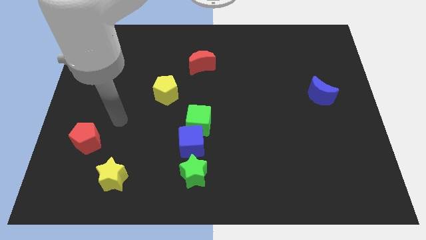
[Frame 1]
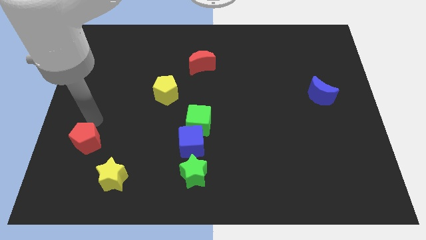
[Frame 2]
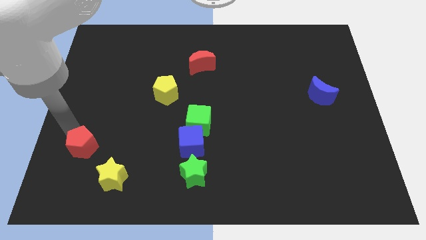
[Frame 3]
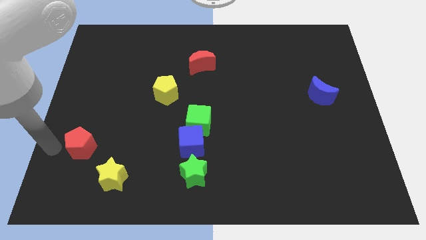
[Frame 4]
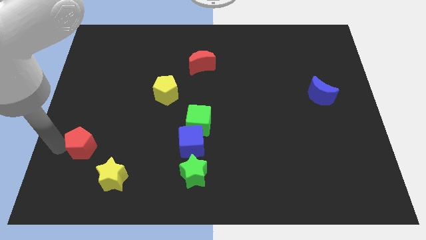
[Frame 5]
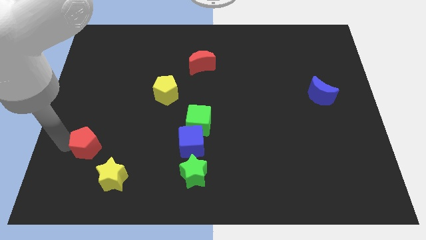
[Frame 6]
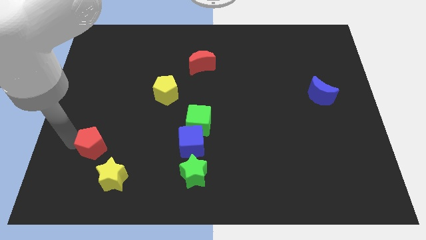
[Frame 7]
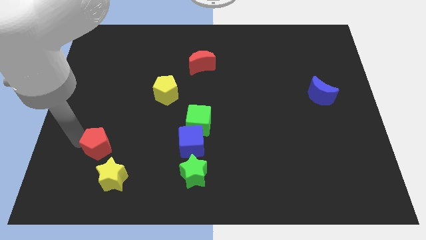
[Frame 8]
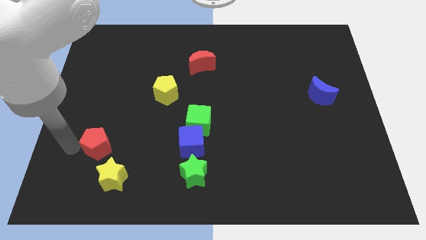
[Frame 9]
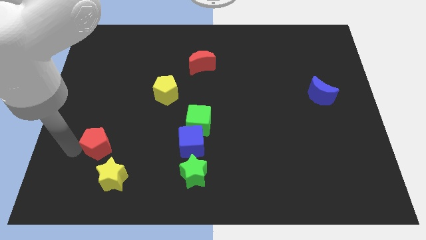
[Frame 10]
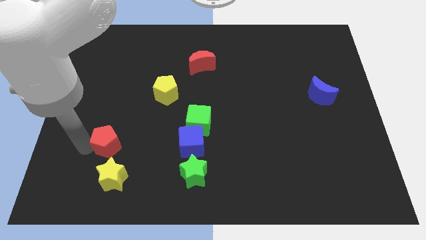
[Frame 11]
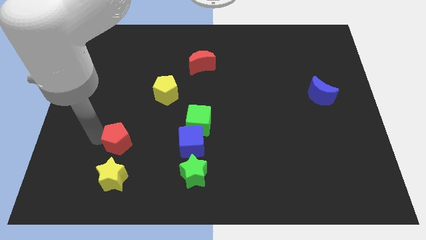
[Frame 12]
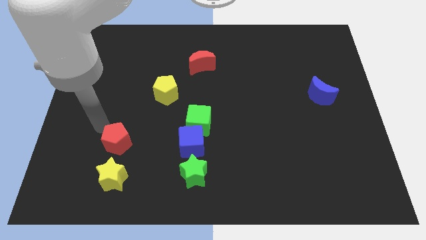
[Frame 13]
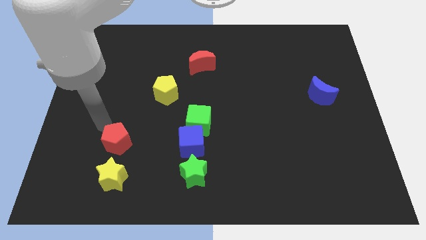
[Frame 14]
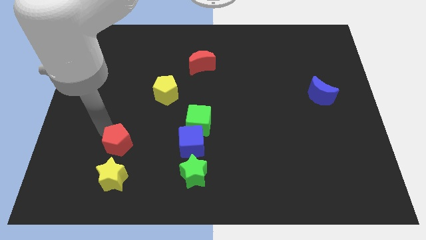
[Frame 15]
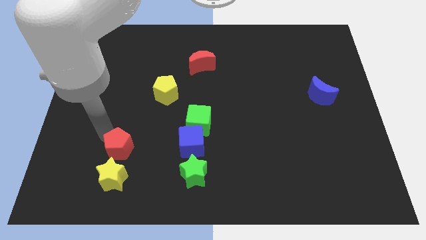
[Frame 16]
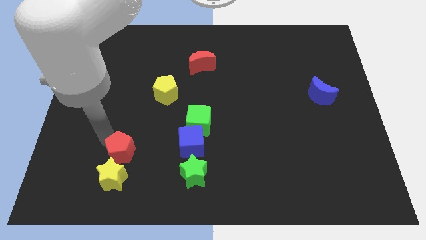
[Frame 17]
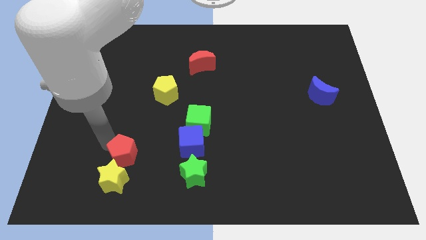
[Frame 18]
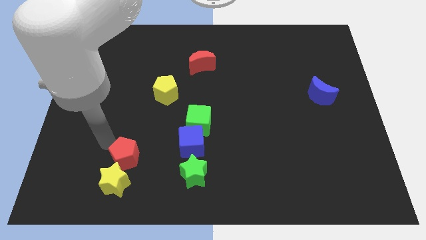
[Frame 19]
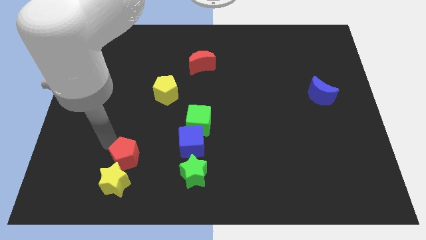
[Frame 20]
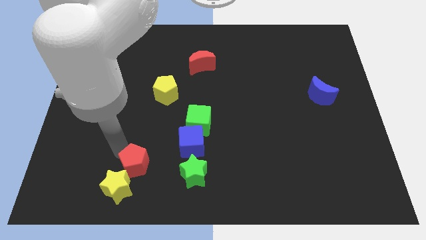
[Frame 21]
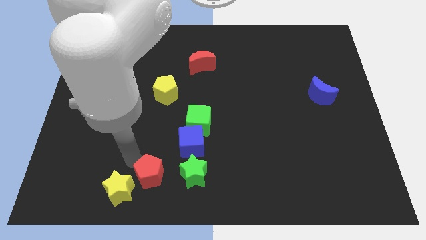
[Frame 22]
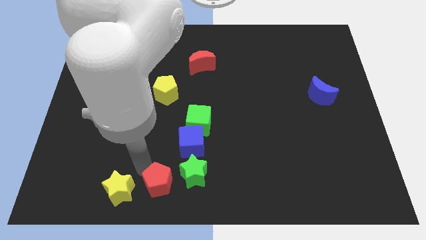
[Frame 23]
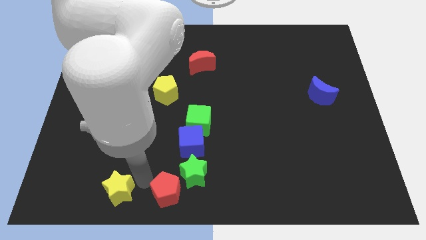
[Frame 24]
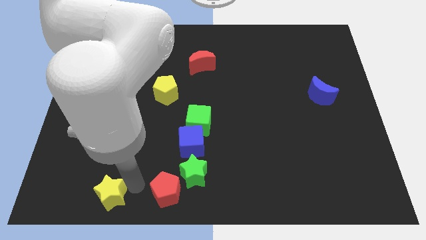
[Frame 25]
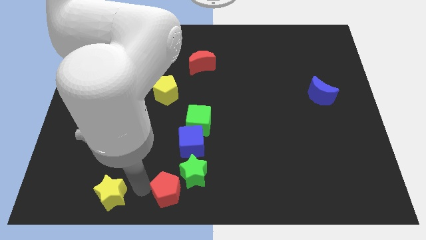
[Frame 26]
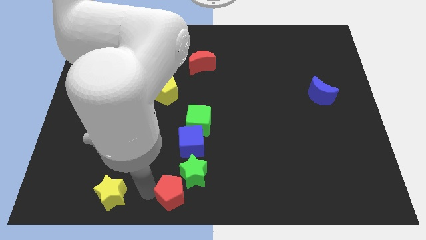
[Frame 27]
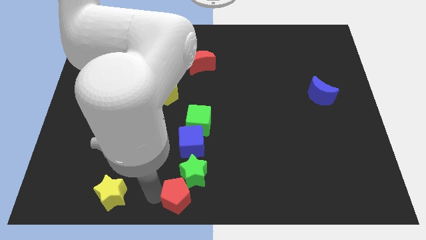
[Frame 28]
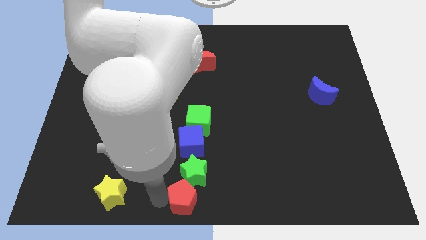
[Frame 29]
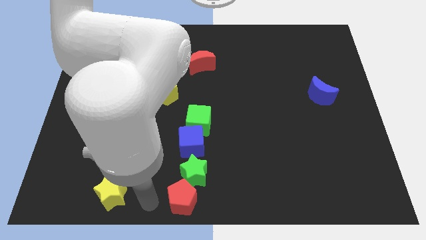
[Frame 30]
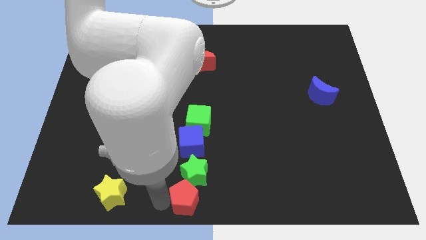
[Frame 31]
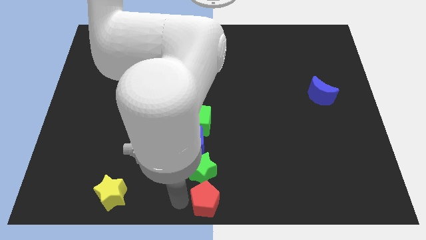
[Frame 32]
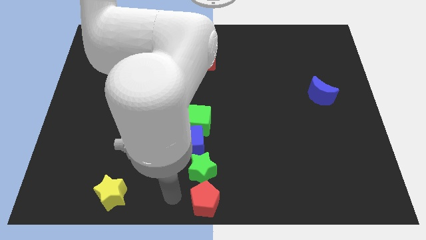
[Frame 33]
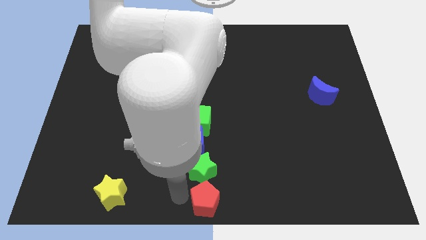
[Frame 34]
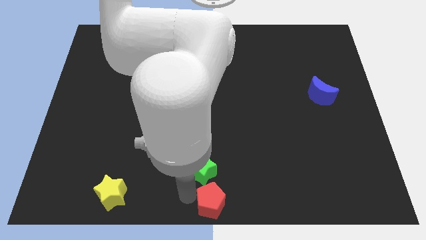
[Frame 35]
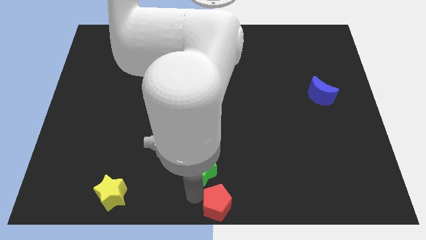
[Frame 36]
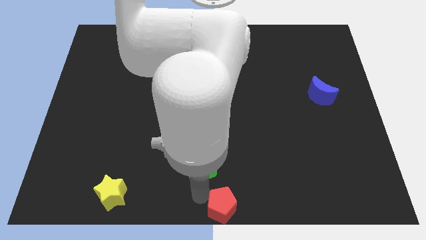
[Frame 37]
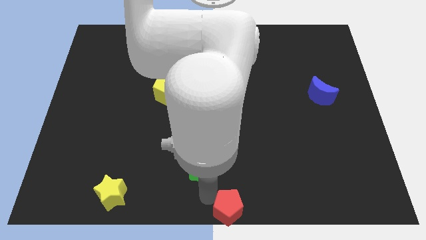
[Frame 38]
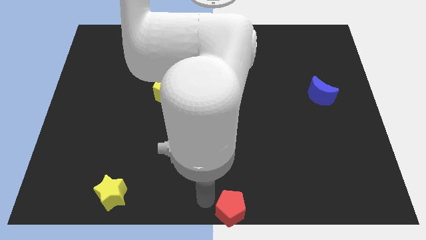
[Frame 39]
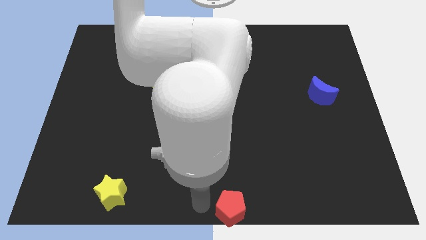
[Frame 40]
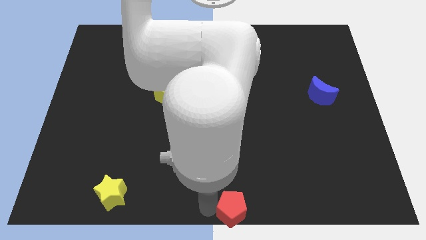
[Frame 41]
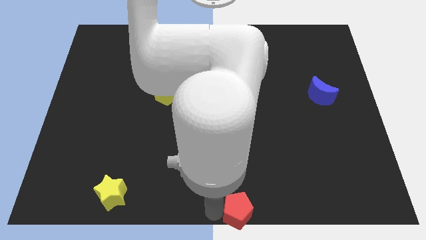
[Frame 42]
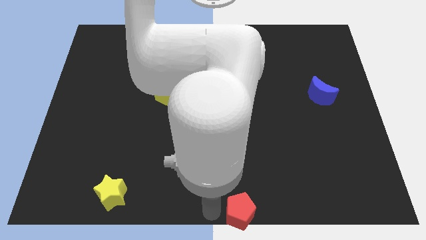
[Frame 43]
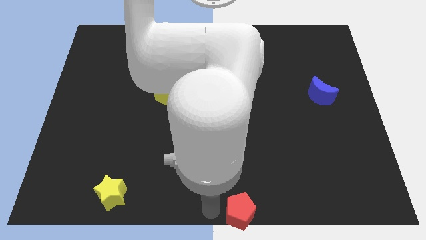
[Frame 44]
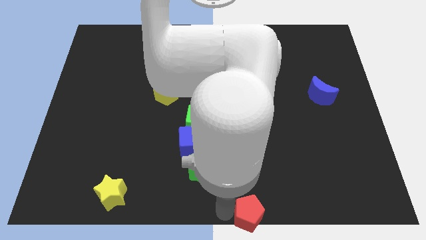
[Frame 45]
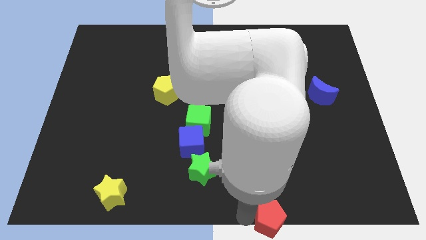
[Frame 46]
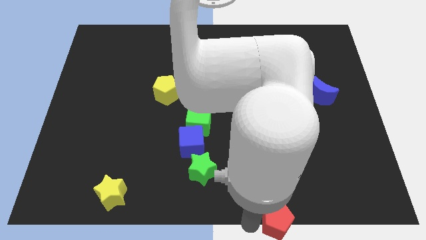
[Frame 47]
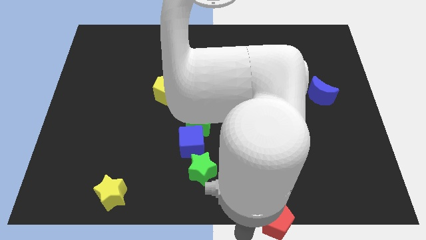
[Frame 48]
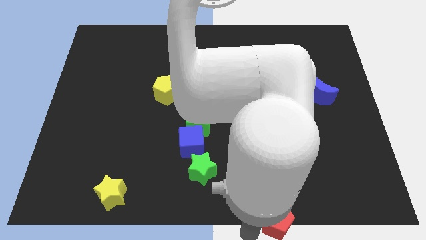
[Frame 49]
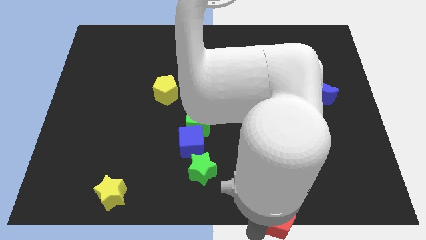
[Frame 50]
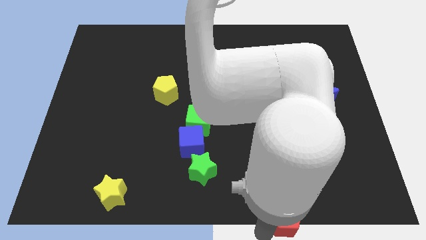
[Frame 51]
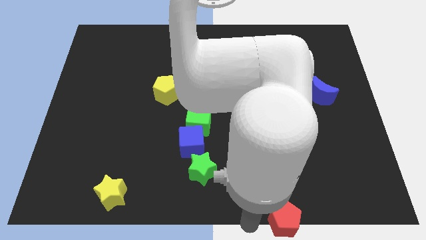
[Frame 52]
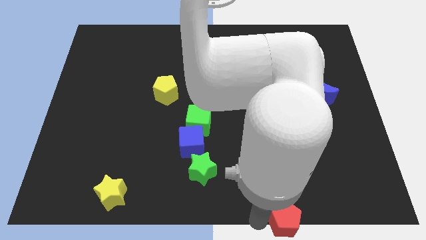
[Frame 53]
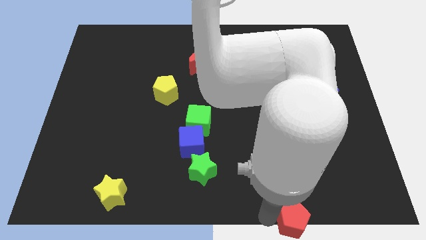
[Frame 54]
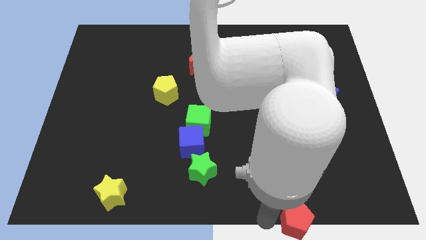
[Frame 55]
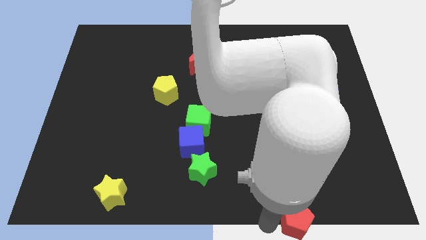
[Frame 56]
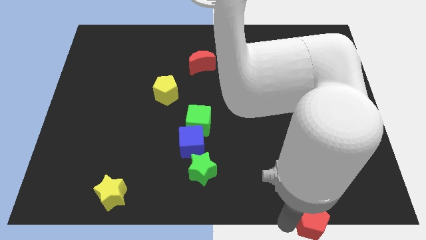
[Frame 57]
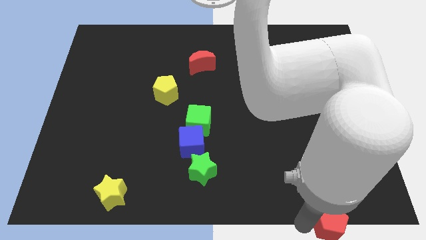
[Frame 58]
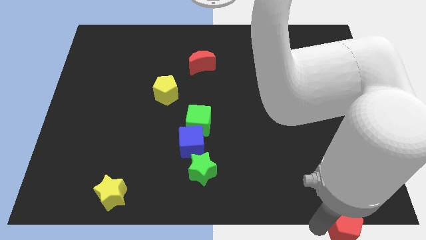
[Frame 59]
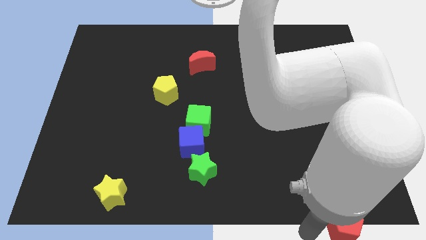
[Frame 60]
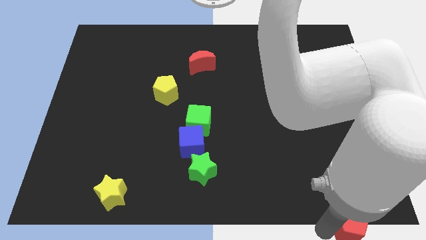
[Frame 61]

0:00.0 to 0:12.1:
slide the red pentagon to the bottom right
